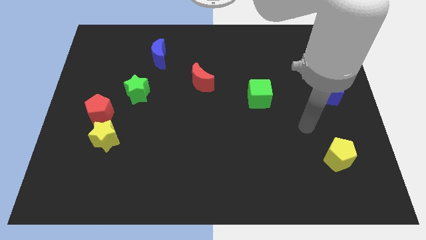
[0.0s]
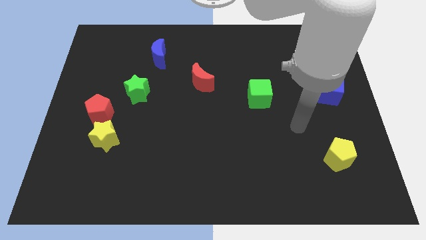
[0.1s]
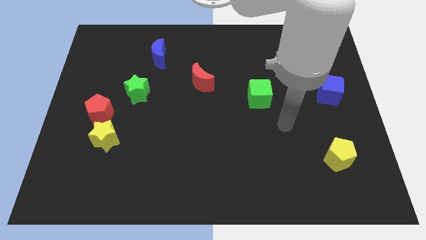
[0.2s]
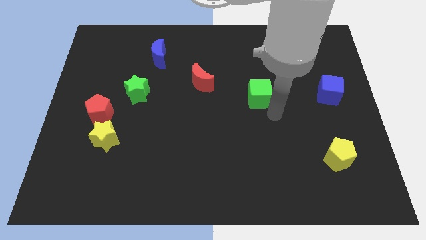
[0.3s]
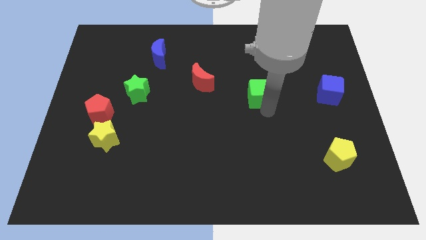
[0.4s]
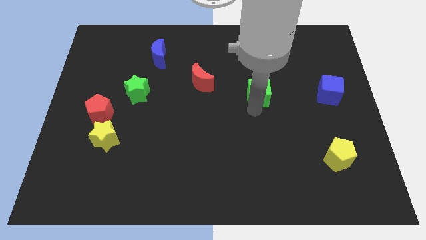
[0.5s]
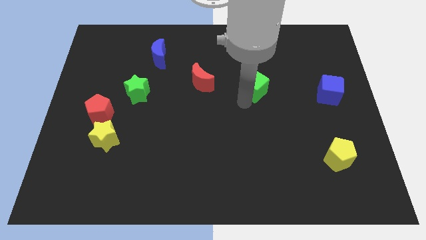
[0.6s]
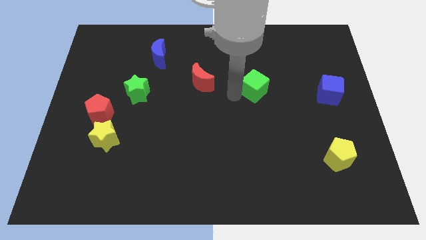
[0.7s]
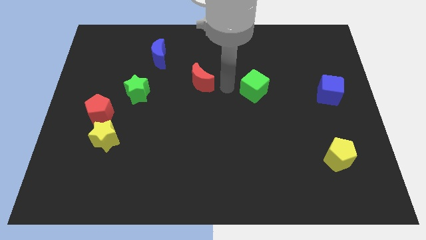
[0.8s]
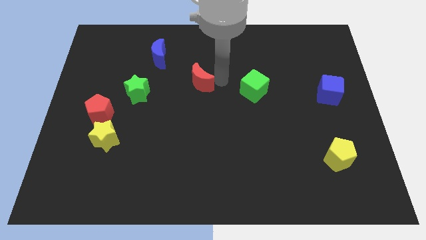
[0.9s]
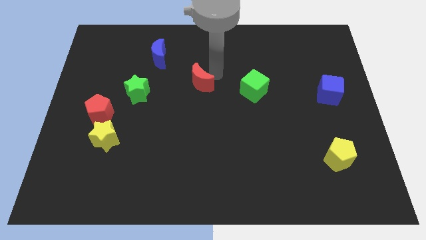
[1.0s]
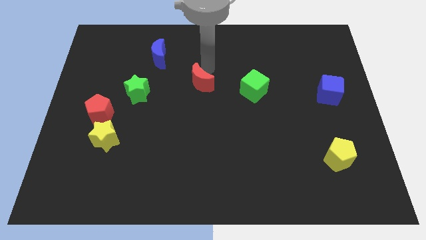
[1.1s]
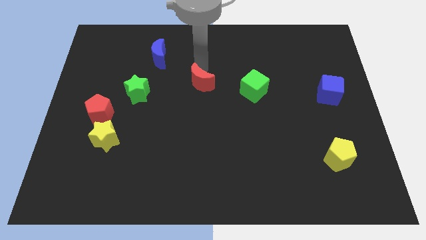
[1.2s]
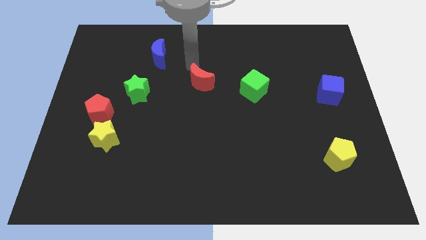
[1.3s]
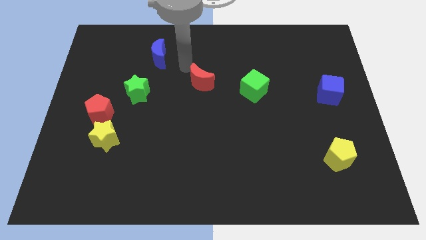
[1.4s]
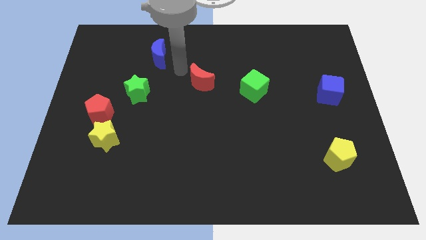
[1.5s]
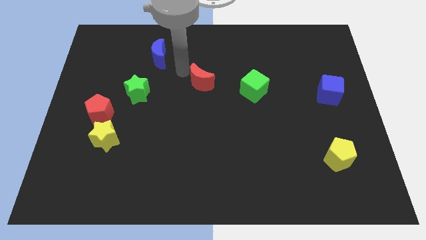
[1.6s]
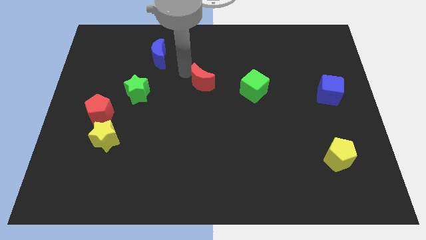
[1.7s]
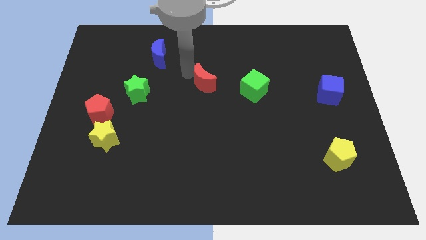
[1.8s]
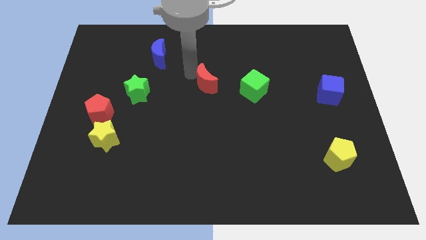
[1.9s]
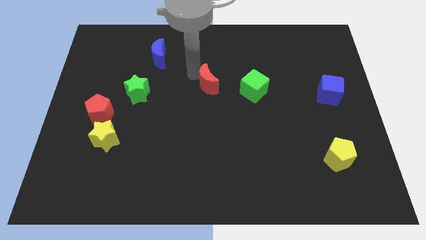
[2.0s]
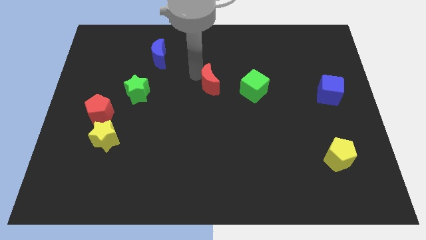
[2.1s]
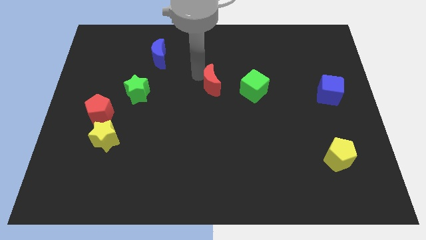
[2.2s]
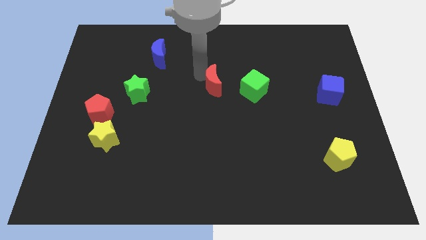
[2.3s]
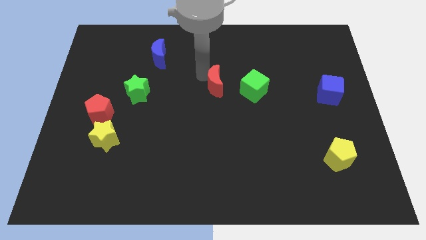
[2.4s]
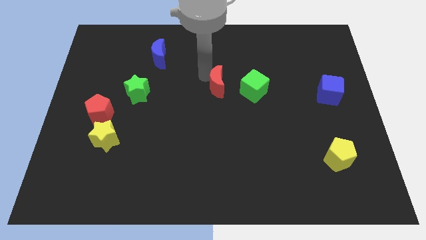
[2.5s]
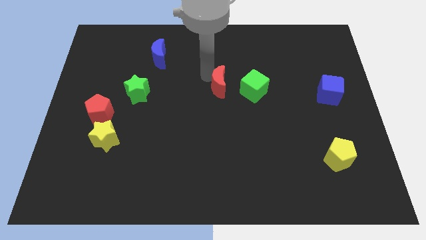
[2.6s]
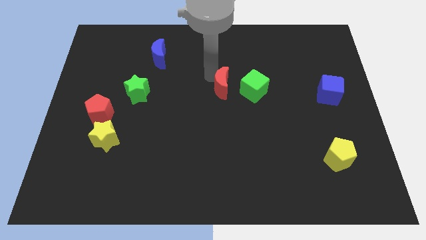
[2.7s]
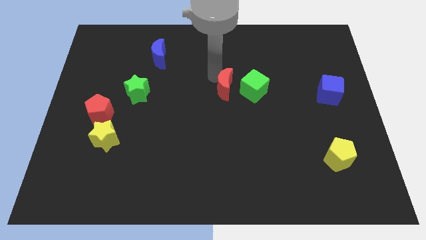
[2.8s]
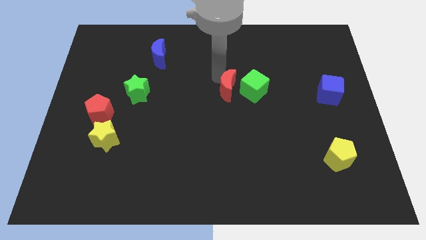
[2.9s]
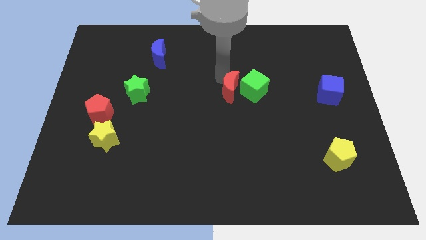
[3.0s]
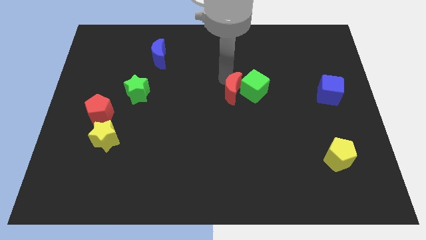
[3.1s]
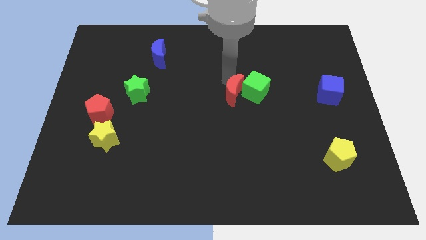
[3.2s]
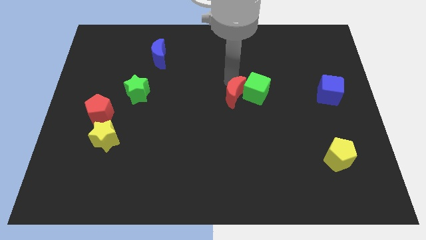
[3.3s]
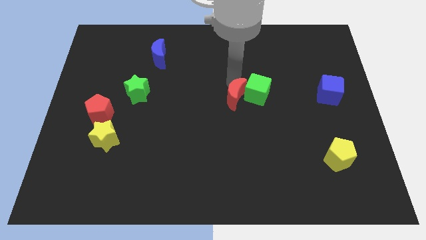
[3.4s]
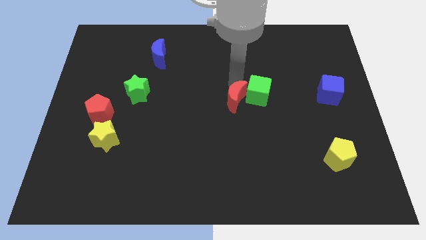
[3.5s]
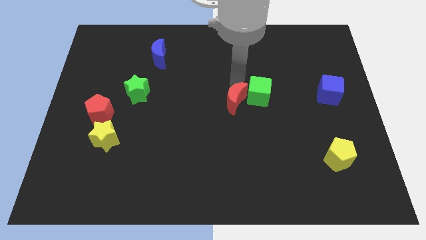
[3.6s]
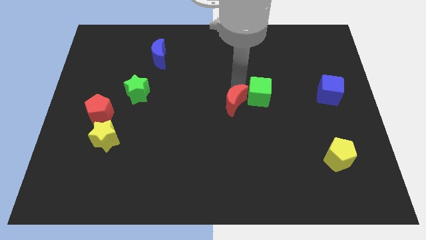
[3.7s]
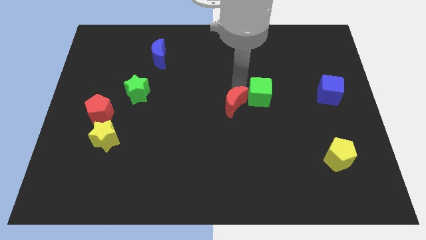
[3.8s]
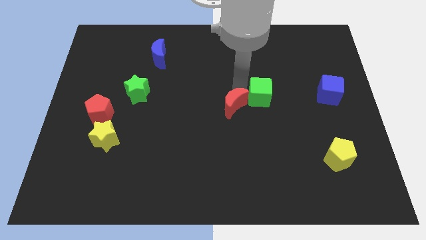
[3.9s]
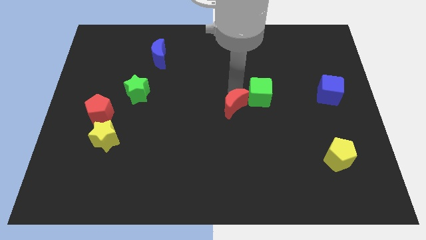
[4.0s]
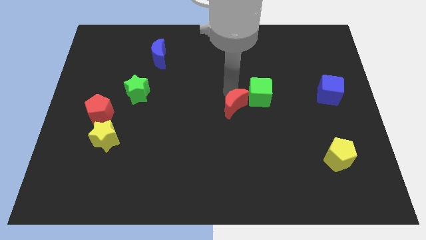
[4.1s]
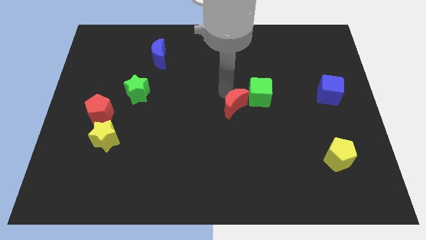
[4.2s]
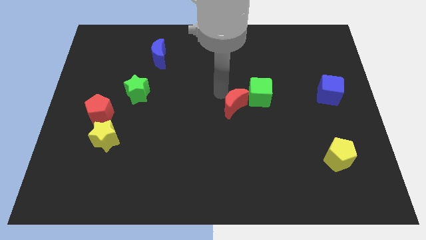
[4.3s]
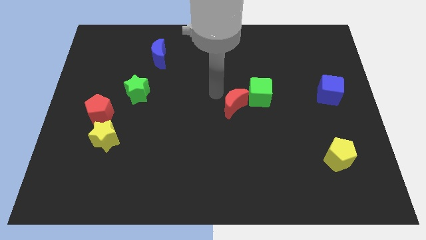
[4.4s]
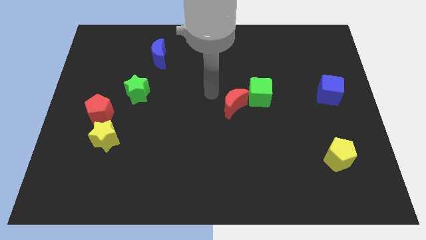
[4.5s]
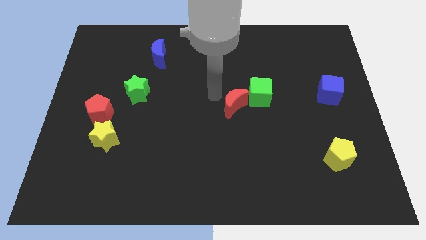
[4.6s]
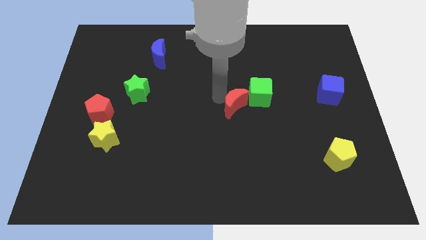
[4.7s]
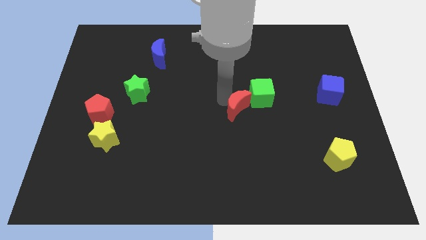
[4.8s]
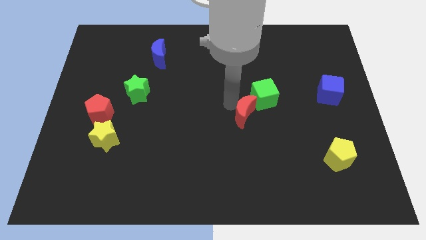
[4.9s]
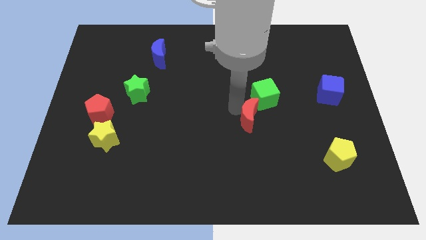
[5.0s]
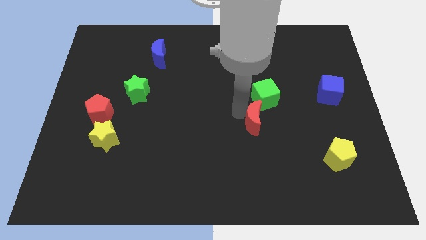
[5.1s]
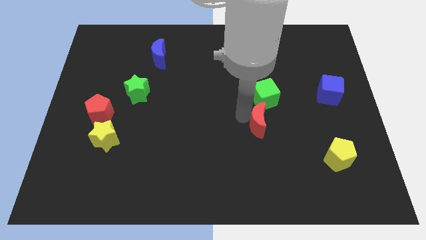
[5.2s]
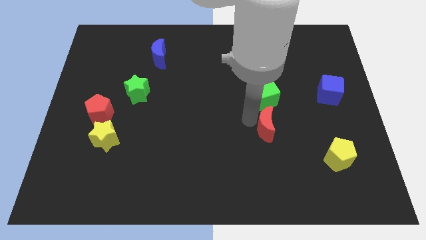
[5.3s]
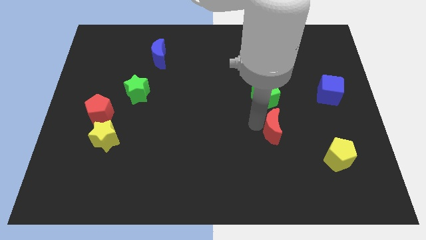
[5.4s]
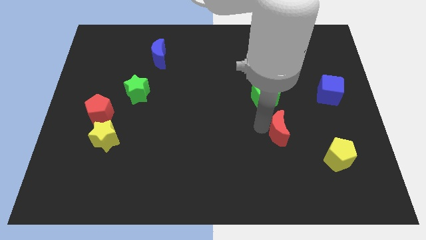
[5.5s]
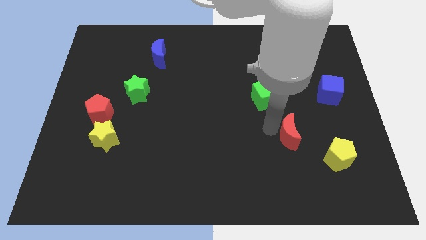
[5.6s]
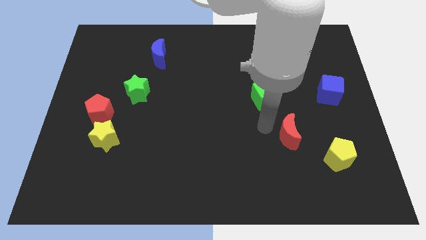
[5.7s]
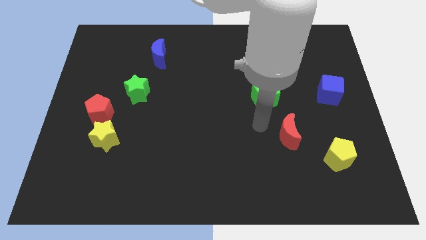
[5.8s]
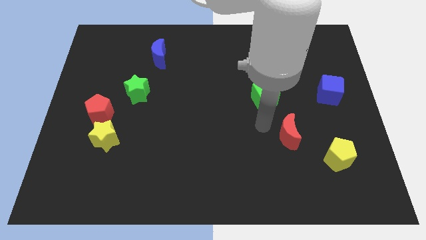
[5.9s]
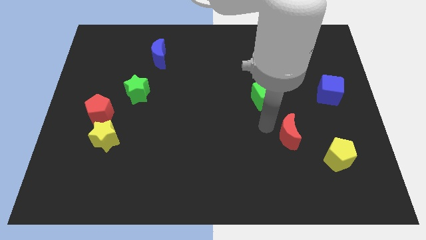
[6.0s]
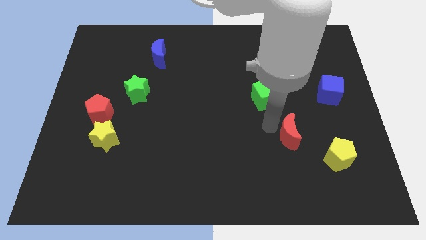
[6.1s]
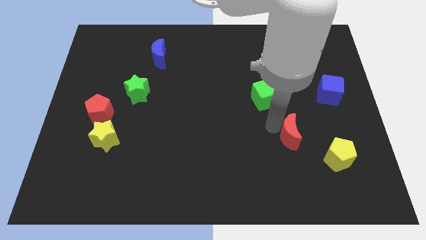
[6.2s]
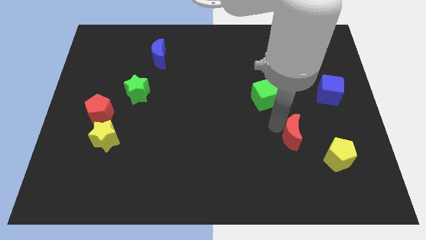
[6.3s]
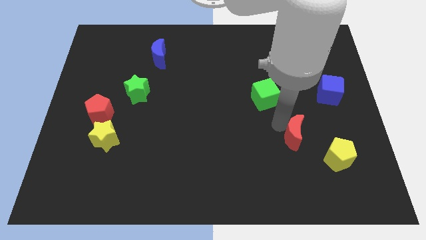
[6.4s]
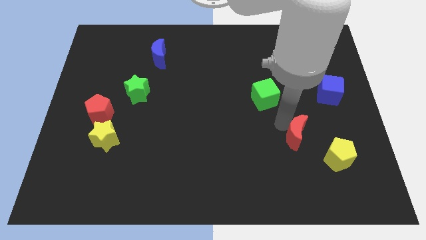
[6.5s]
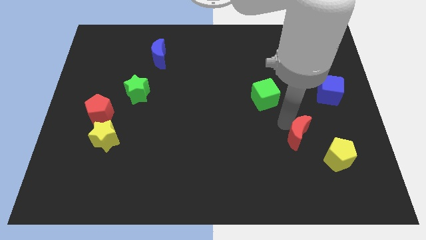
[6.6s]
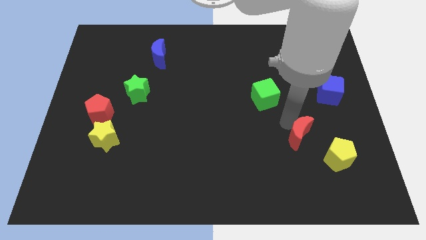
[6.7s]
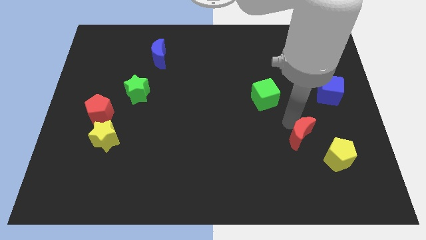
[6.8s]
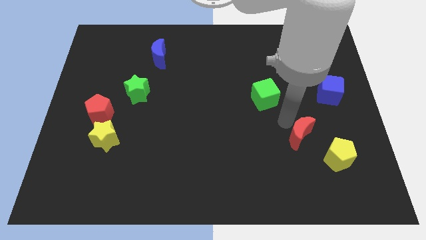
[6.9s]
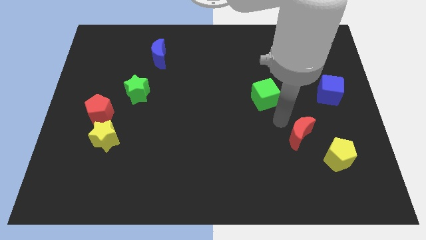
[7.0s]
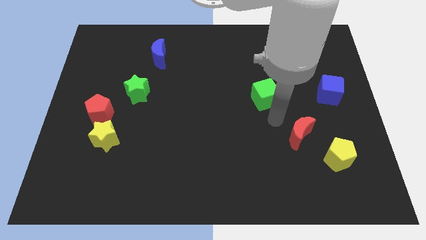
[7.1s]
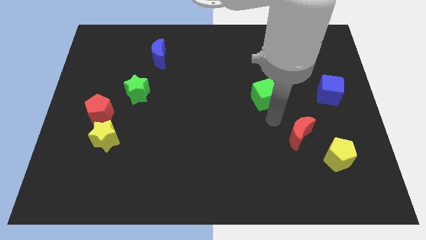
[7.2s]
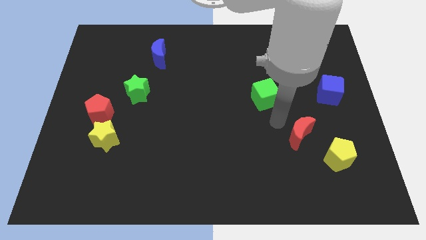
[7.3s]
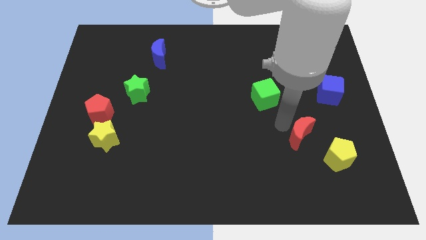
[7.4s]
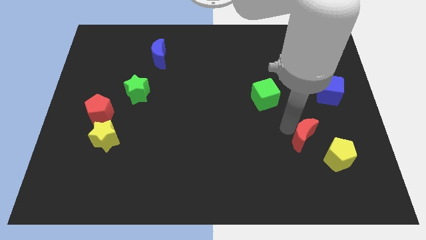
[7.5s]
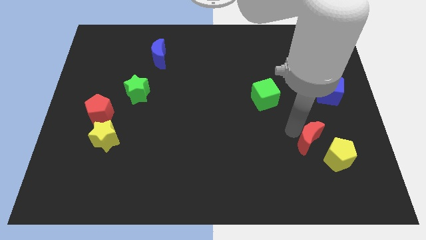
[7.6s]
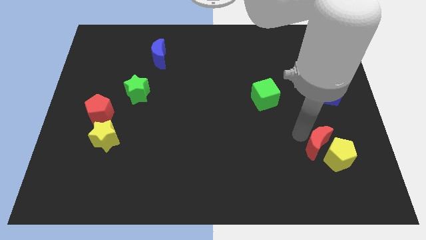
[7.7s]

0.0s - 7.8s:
slide the red moon close to the yellow pentagon

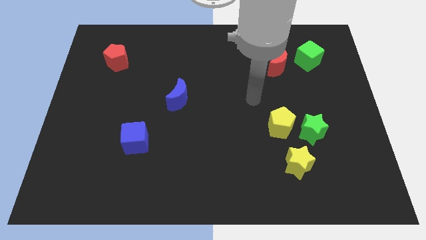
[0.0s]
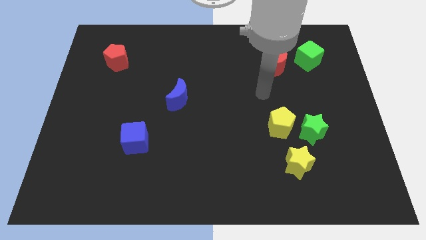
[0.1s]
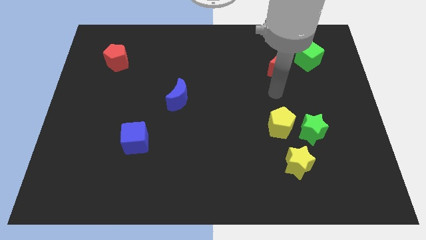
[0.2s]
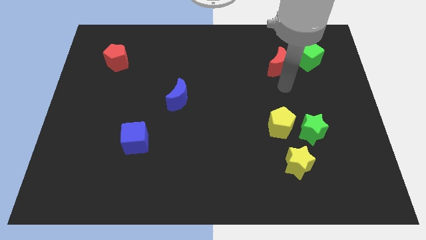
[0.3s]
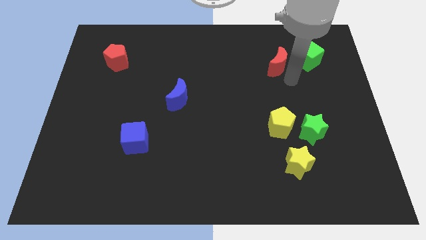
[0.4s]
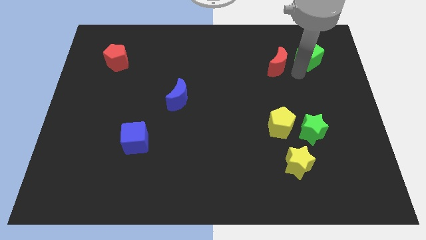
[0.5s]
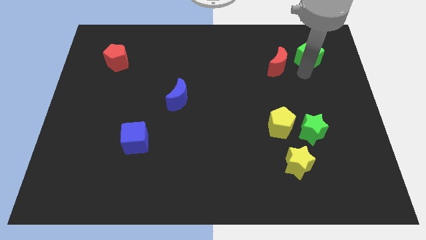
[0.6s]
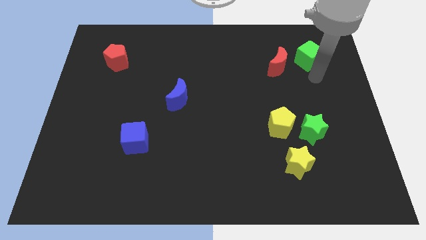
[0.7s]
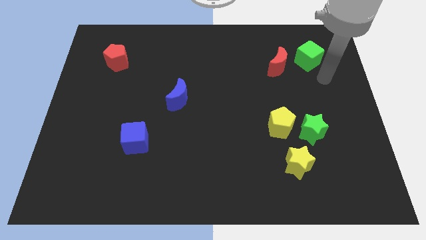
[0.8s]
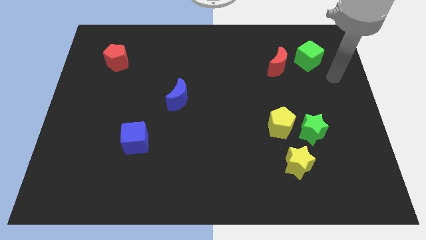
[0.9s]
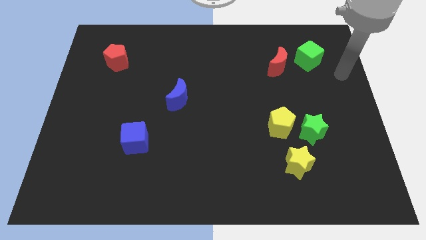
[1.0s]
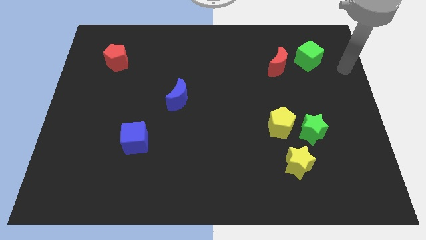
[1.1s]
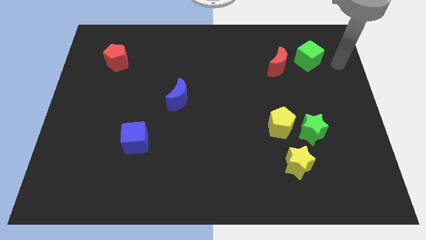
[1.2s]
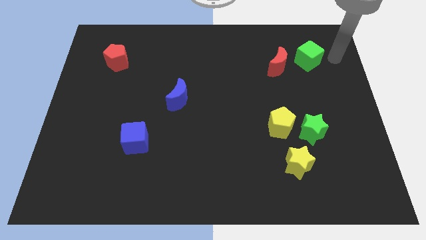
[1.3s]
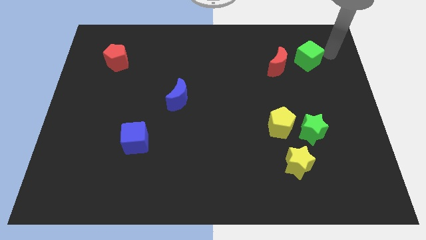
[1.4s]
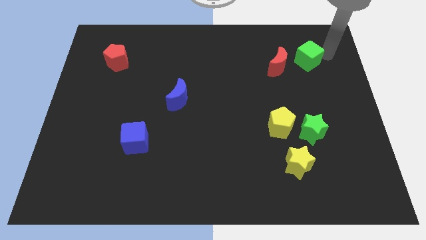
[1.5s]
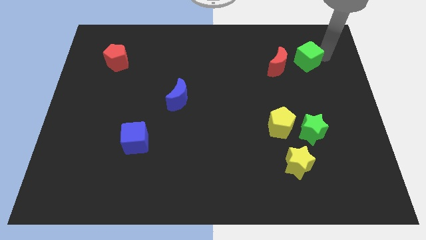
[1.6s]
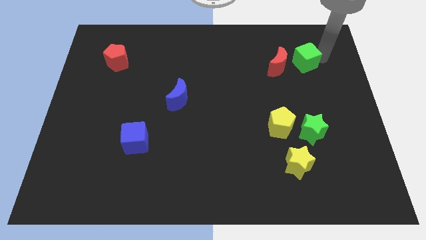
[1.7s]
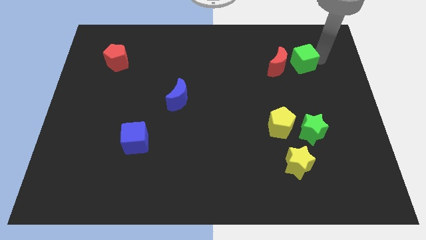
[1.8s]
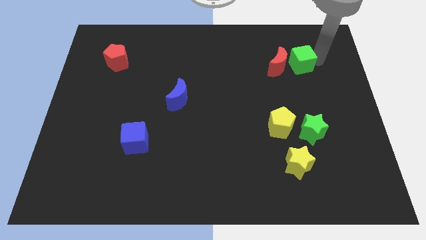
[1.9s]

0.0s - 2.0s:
put the green cube close to the red moon
